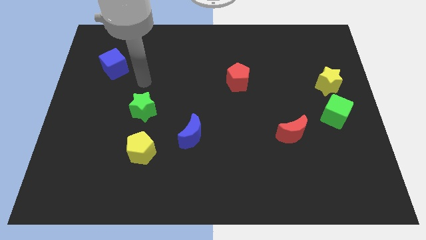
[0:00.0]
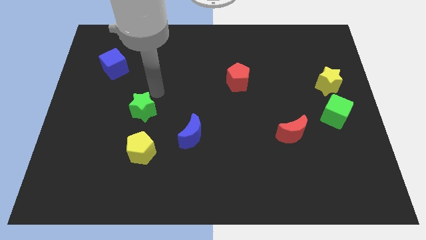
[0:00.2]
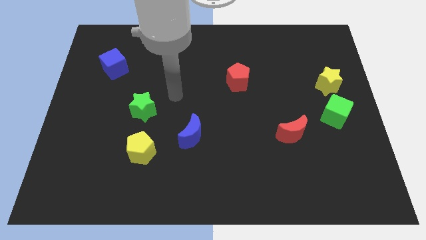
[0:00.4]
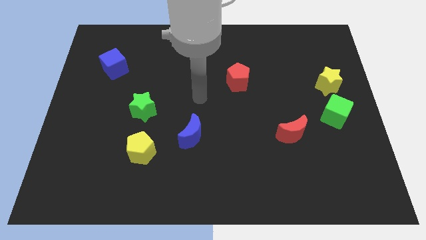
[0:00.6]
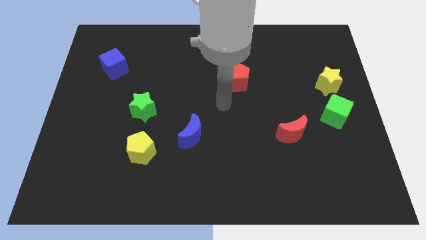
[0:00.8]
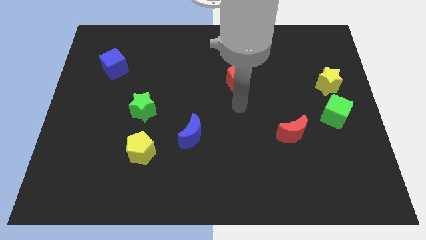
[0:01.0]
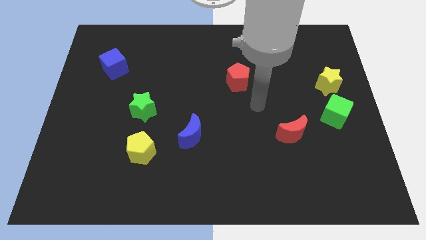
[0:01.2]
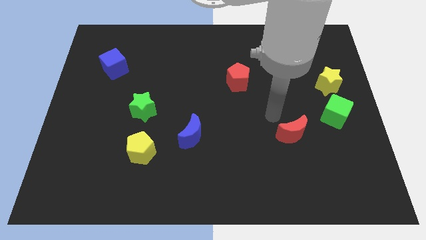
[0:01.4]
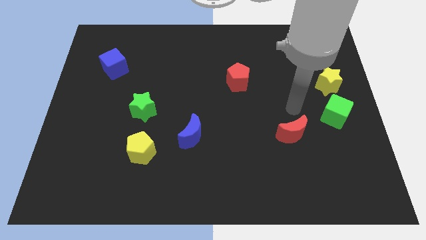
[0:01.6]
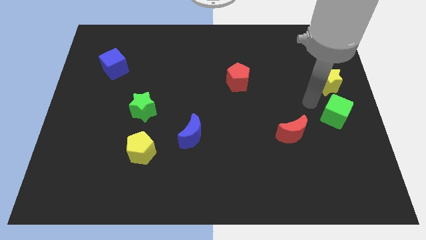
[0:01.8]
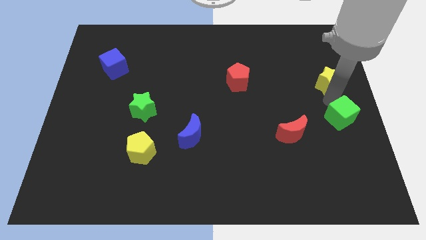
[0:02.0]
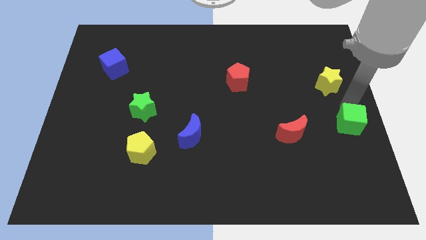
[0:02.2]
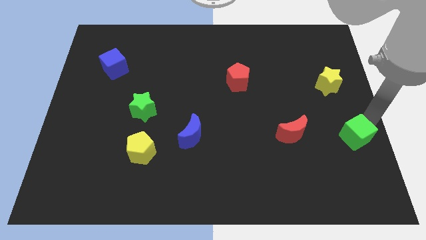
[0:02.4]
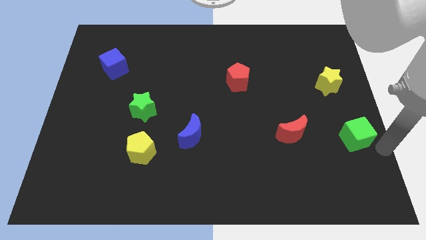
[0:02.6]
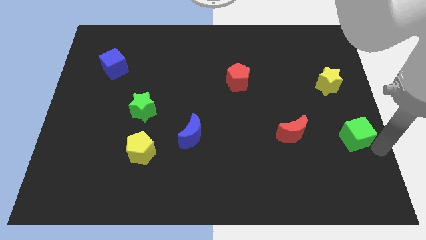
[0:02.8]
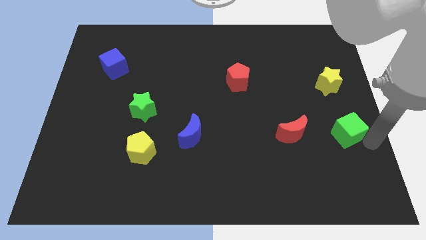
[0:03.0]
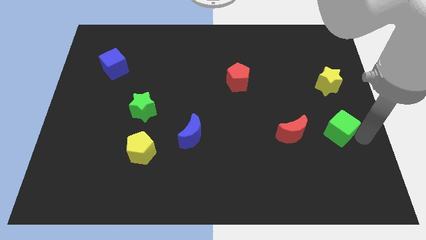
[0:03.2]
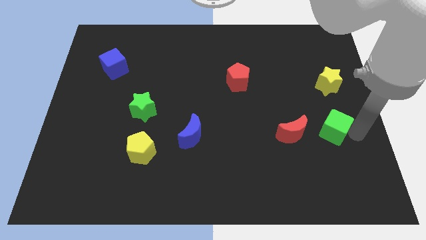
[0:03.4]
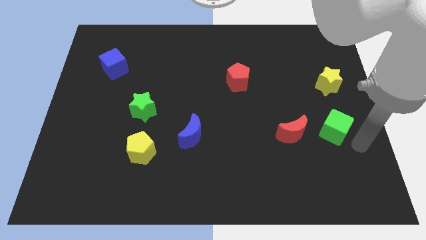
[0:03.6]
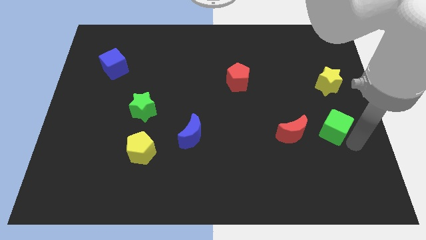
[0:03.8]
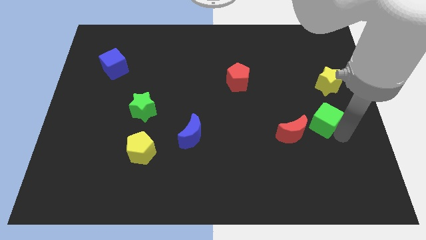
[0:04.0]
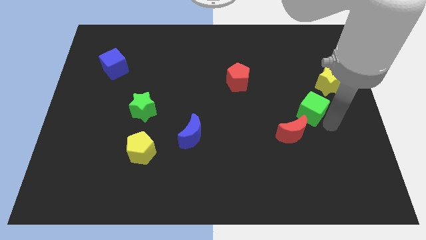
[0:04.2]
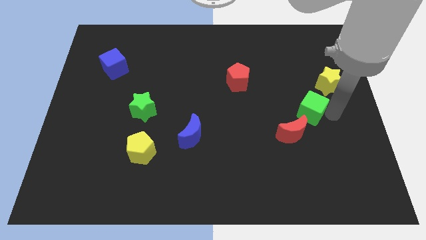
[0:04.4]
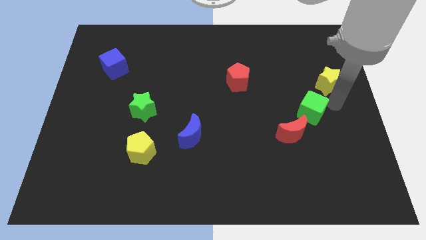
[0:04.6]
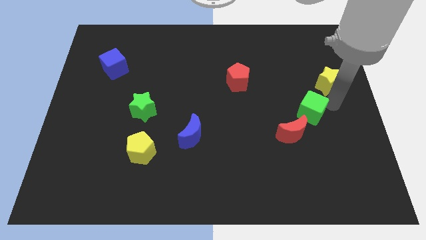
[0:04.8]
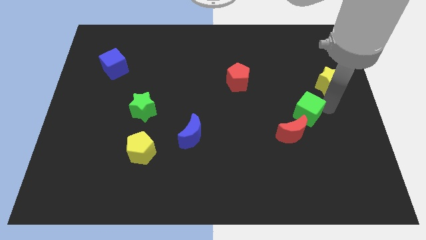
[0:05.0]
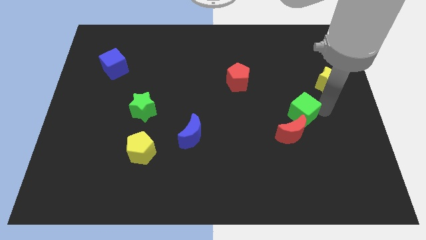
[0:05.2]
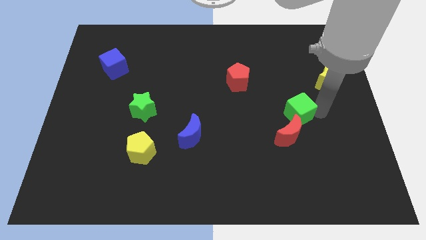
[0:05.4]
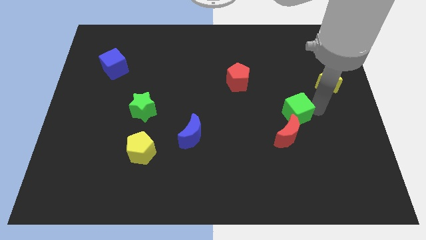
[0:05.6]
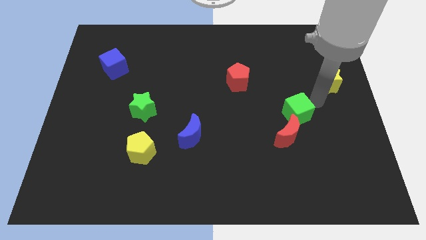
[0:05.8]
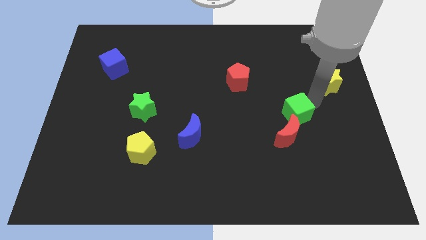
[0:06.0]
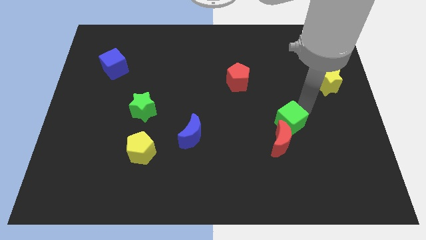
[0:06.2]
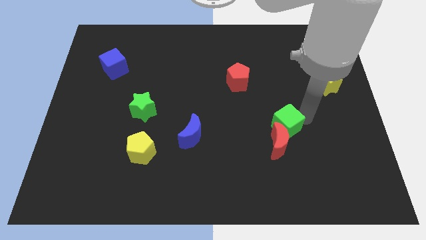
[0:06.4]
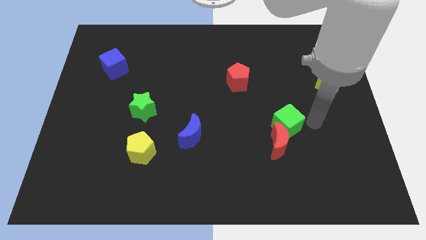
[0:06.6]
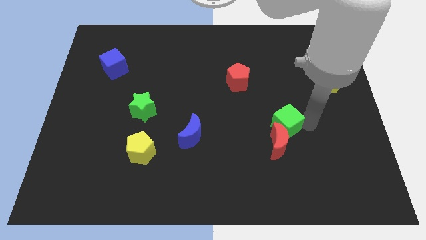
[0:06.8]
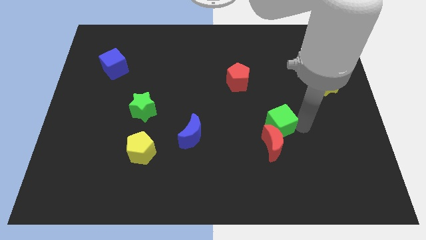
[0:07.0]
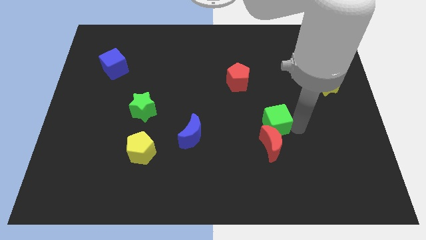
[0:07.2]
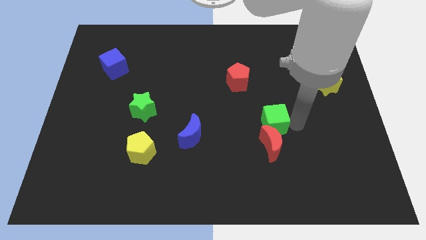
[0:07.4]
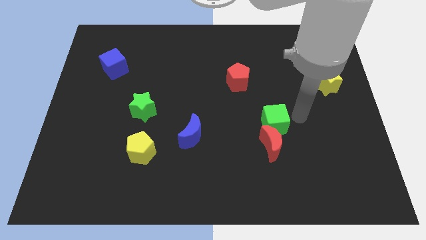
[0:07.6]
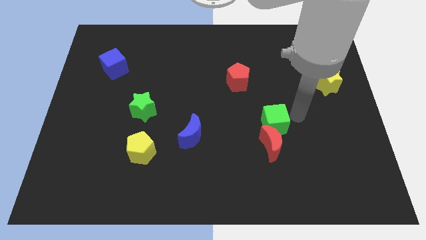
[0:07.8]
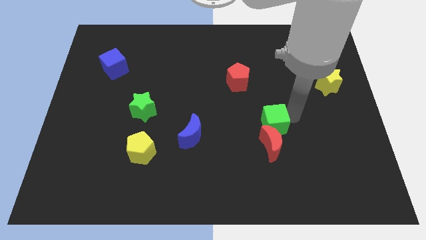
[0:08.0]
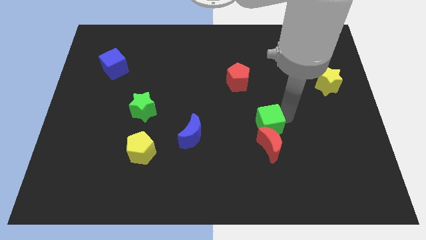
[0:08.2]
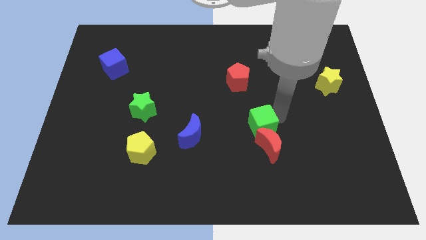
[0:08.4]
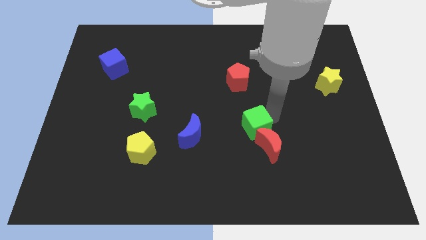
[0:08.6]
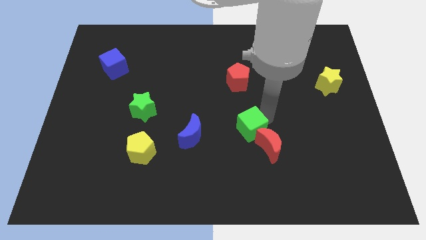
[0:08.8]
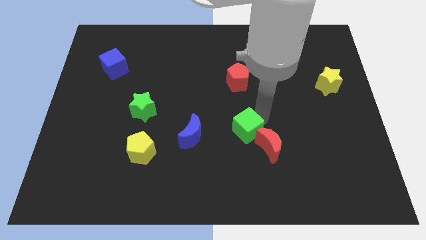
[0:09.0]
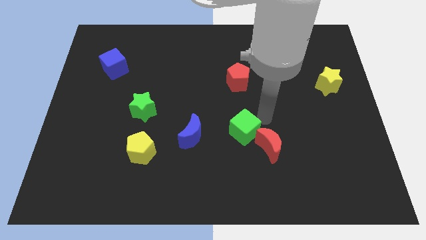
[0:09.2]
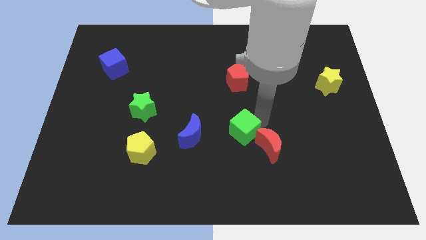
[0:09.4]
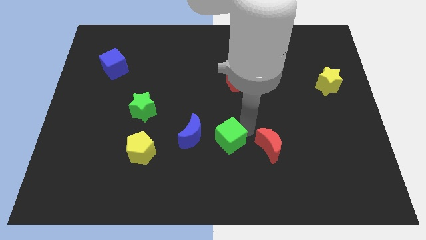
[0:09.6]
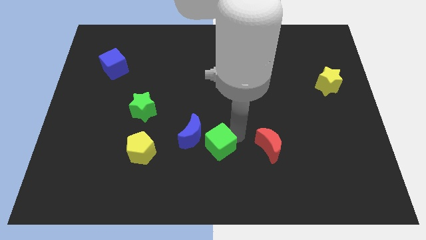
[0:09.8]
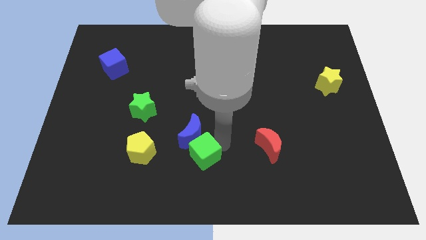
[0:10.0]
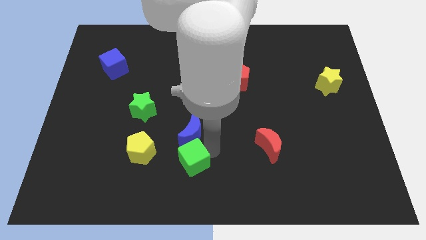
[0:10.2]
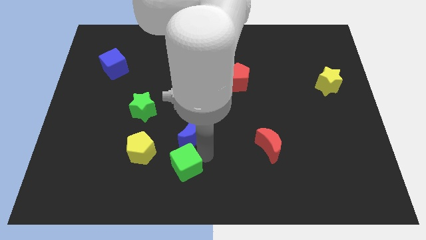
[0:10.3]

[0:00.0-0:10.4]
put the green cube diagonally down and to the right of the yellow pentagon

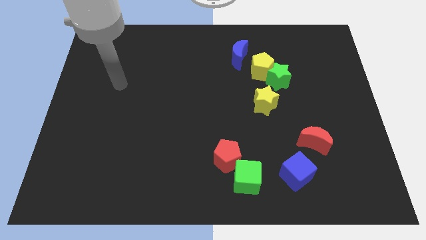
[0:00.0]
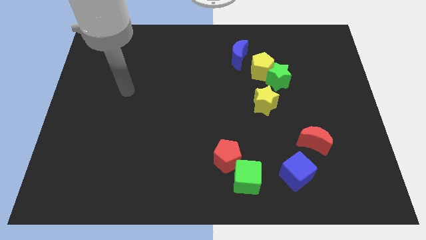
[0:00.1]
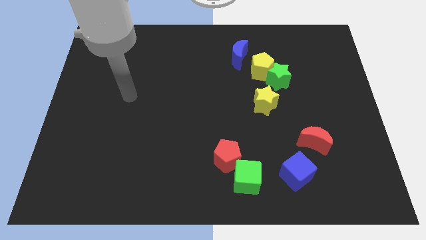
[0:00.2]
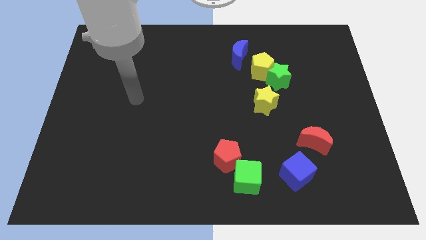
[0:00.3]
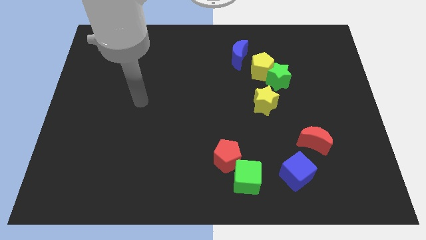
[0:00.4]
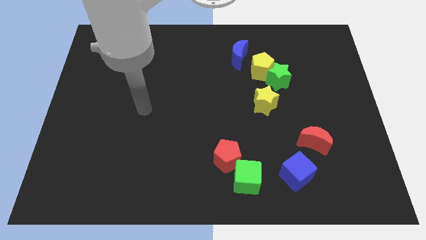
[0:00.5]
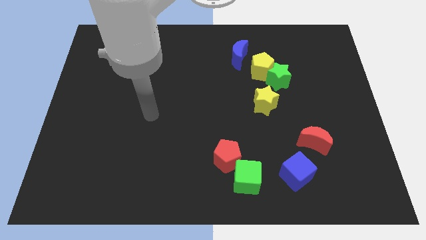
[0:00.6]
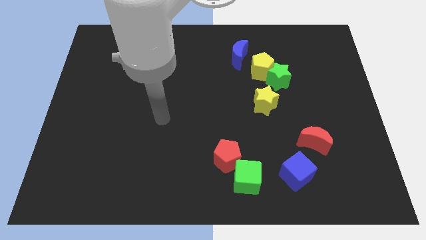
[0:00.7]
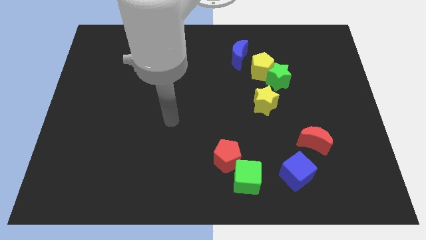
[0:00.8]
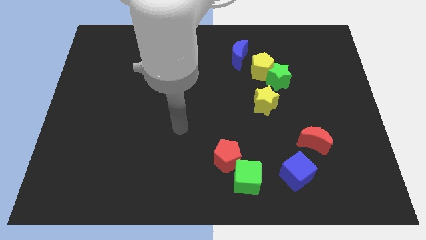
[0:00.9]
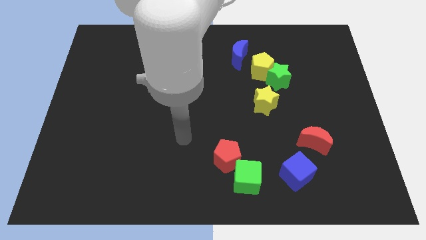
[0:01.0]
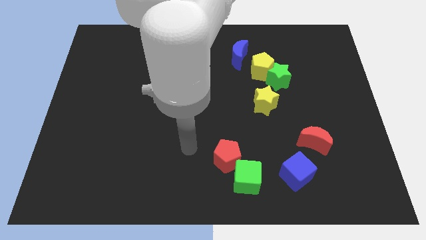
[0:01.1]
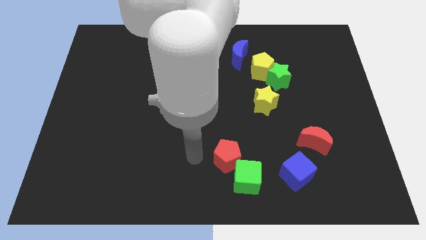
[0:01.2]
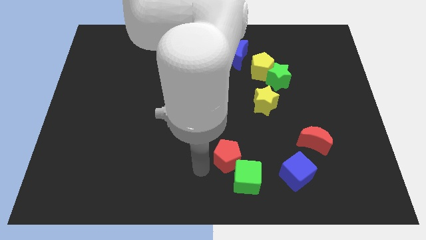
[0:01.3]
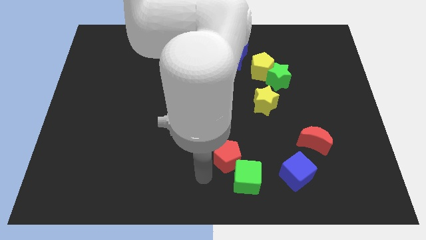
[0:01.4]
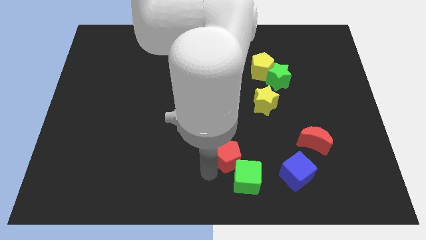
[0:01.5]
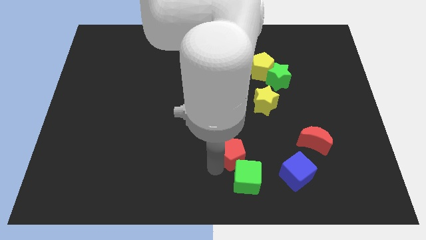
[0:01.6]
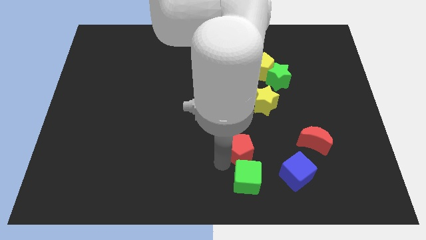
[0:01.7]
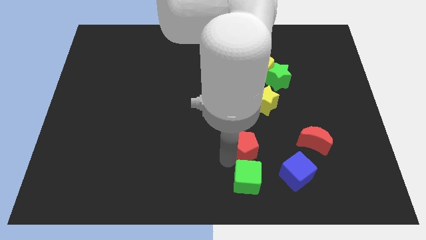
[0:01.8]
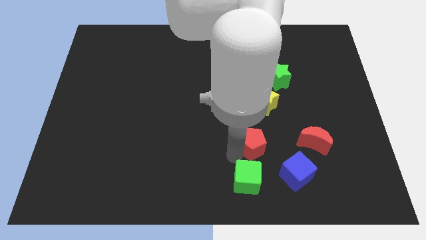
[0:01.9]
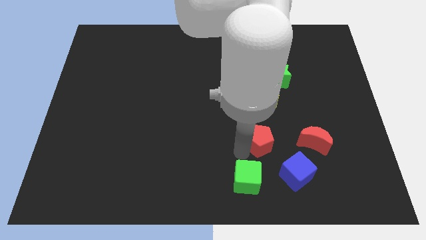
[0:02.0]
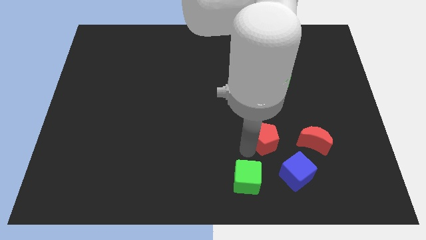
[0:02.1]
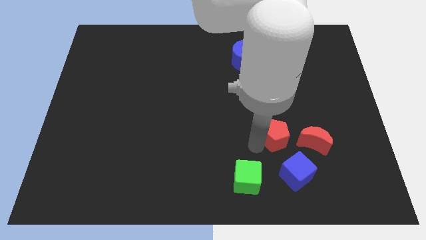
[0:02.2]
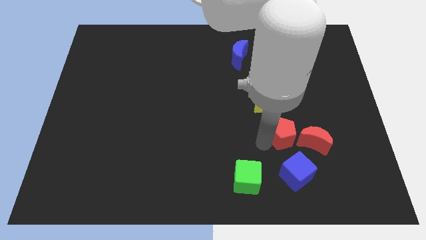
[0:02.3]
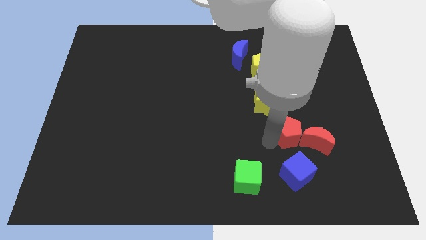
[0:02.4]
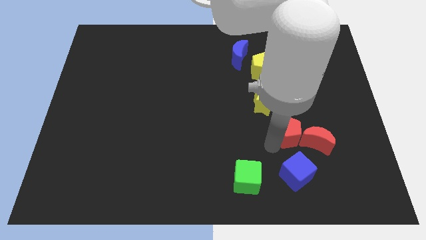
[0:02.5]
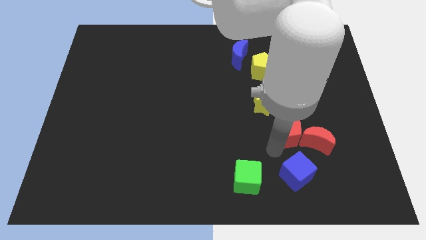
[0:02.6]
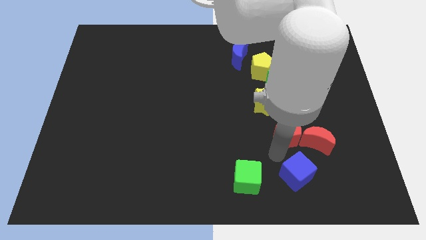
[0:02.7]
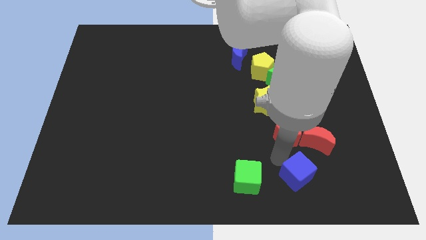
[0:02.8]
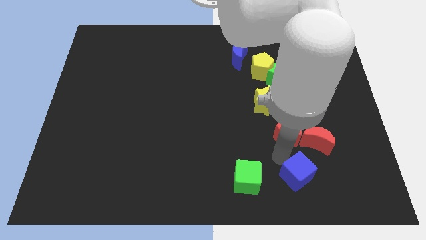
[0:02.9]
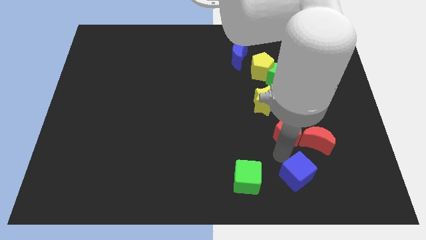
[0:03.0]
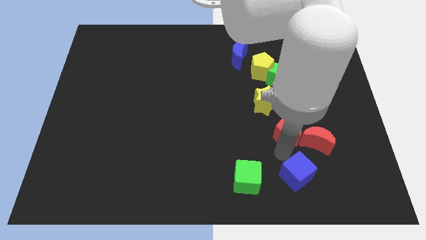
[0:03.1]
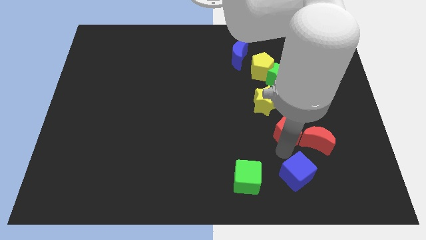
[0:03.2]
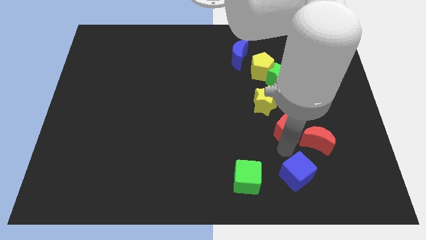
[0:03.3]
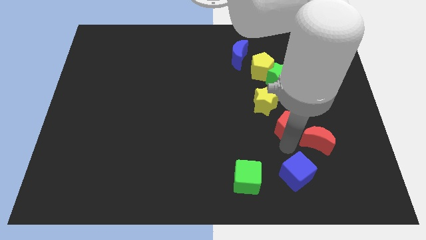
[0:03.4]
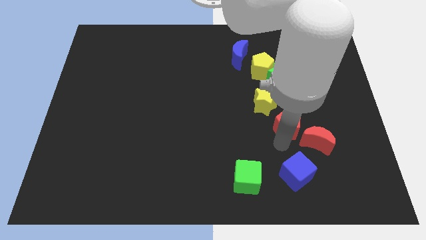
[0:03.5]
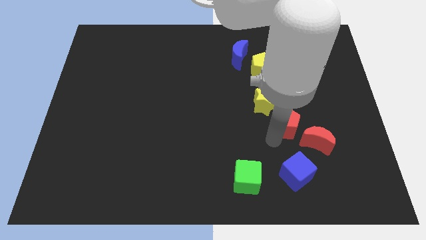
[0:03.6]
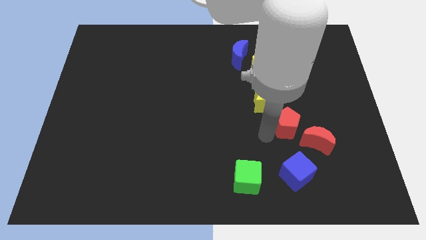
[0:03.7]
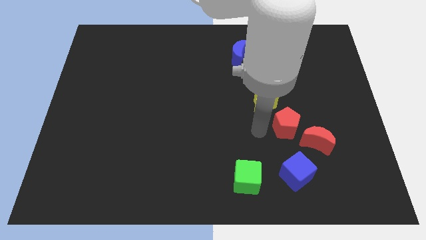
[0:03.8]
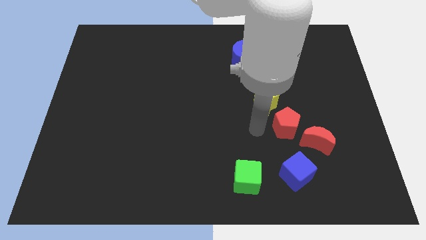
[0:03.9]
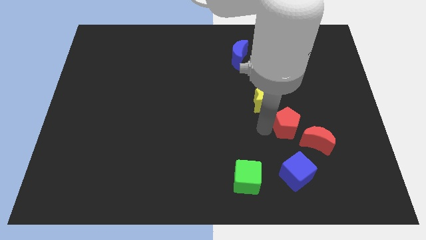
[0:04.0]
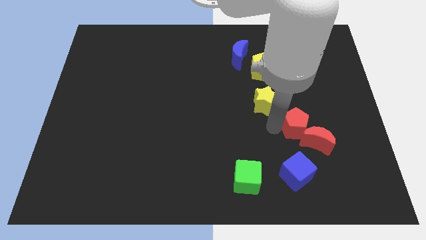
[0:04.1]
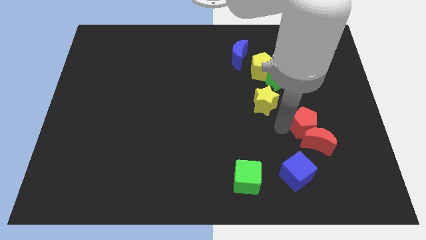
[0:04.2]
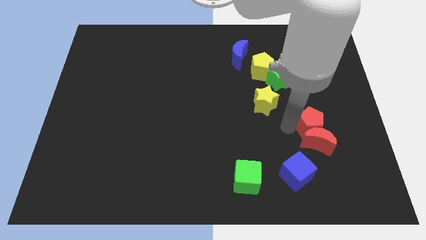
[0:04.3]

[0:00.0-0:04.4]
put the red pentagon diagonally up and to the right of the red moon
